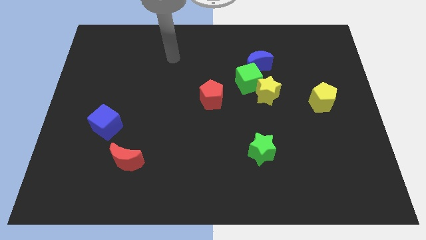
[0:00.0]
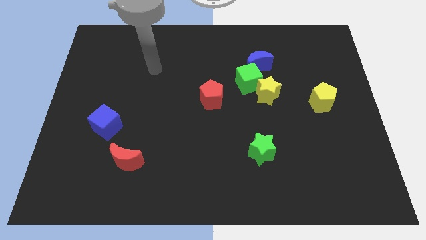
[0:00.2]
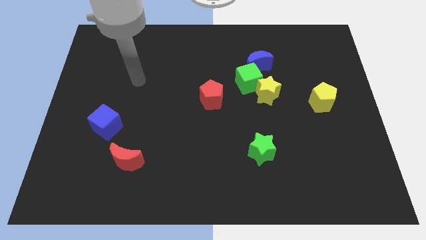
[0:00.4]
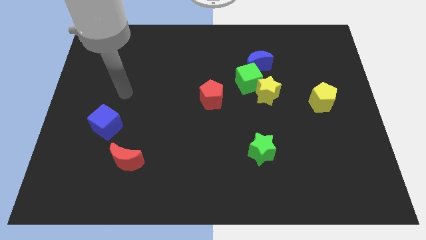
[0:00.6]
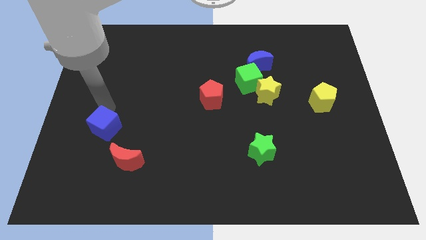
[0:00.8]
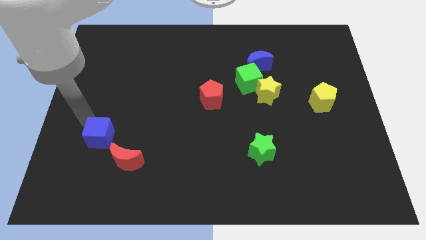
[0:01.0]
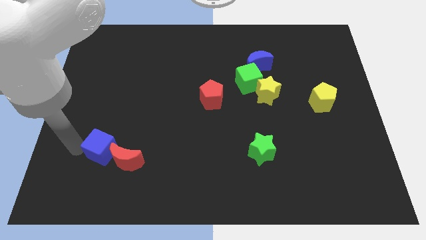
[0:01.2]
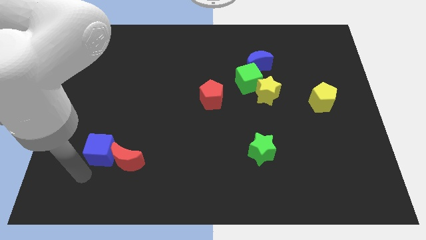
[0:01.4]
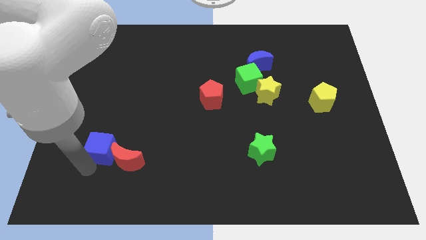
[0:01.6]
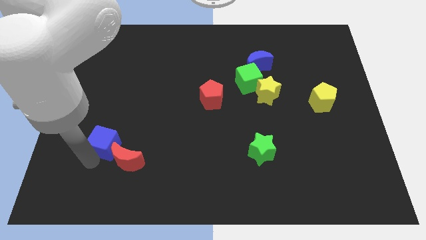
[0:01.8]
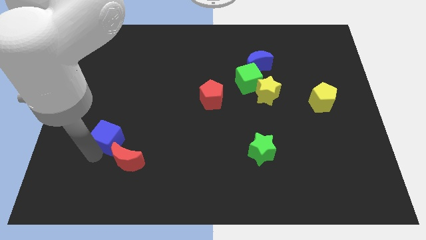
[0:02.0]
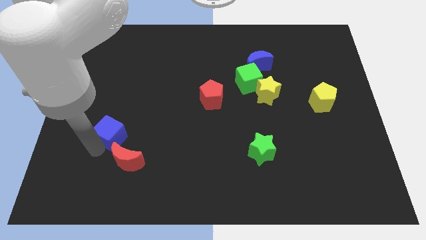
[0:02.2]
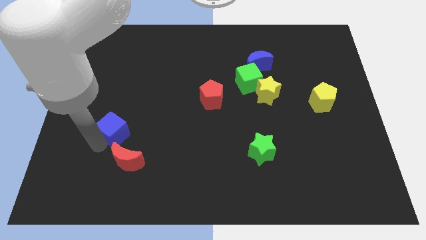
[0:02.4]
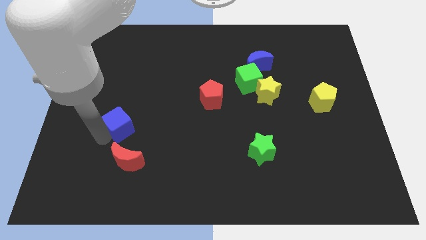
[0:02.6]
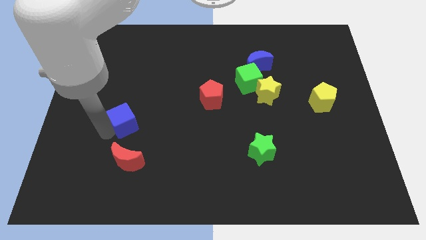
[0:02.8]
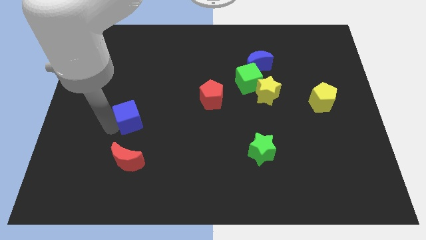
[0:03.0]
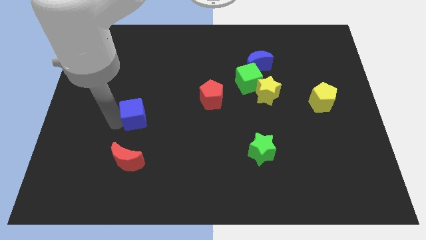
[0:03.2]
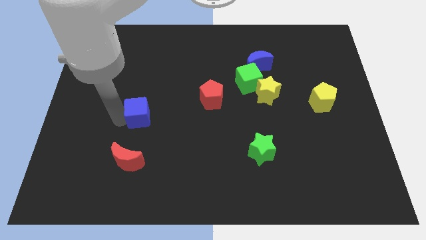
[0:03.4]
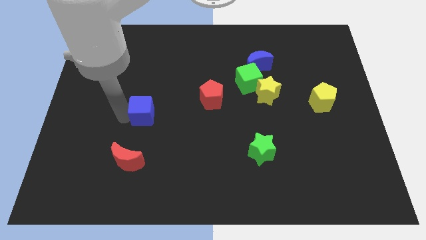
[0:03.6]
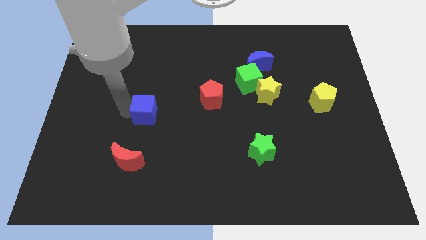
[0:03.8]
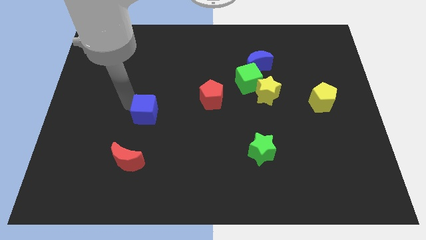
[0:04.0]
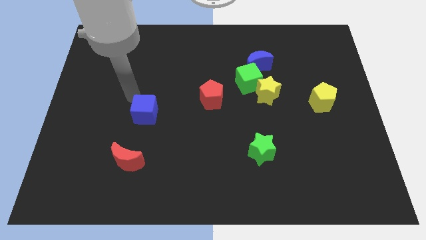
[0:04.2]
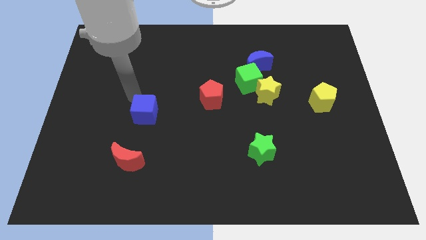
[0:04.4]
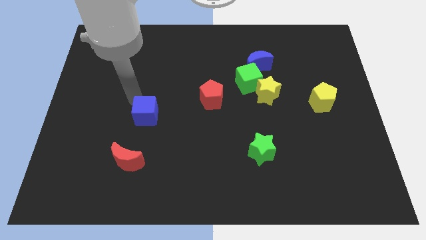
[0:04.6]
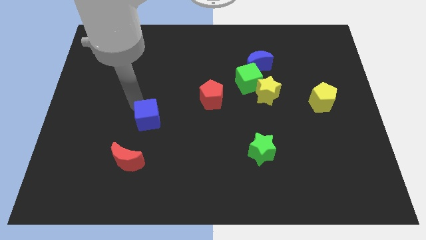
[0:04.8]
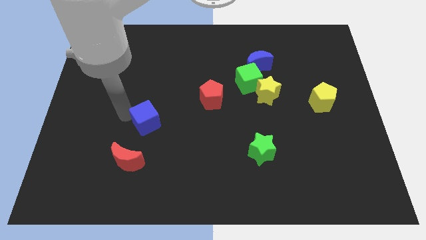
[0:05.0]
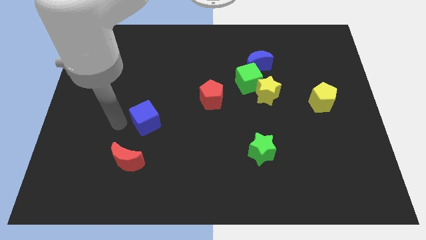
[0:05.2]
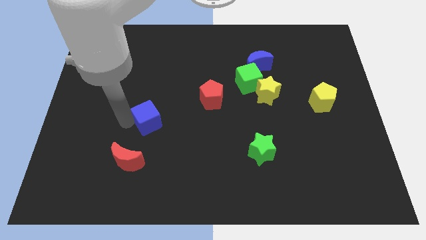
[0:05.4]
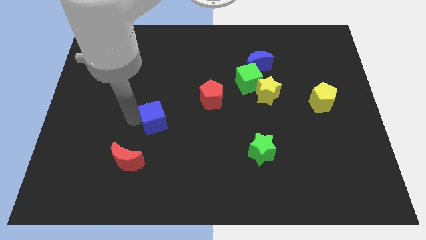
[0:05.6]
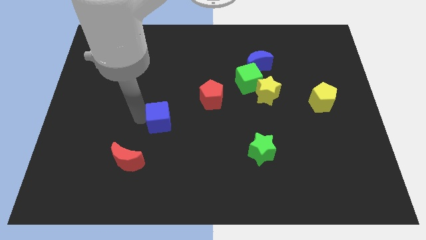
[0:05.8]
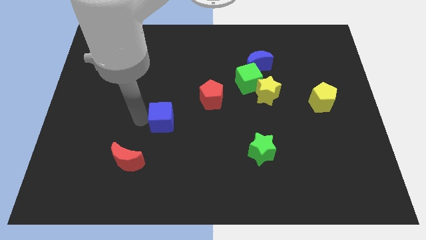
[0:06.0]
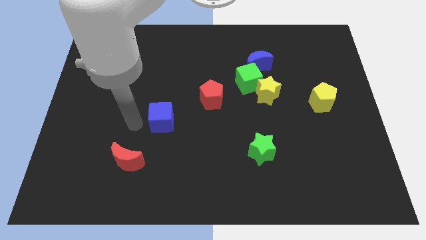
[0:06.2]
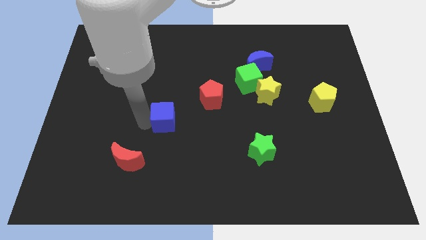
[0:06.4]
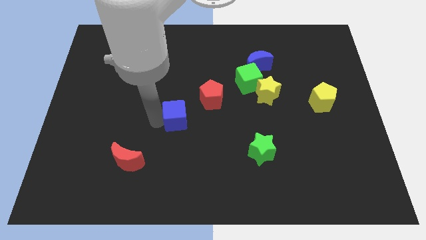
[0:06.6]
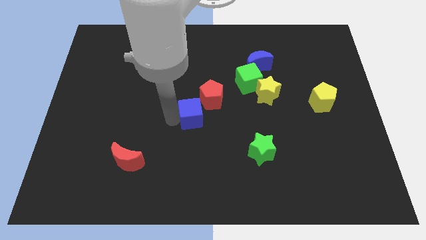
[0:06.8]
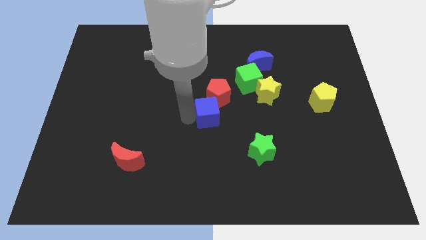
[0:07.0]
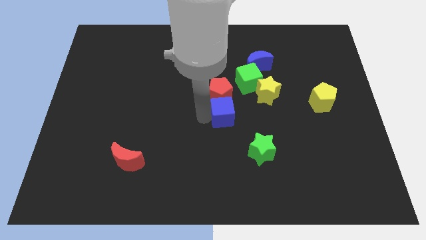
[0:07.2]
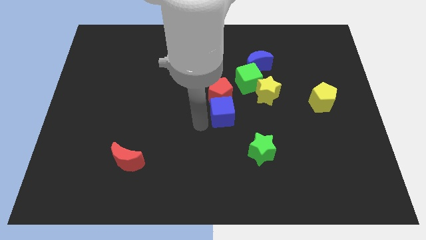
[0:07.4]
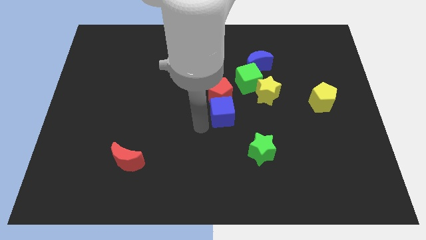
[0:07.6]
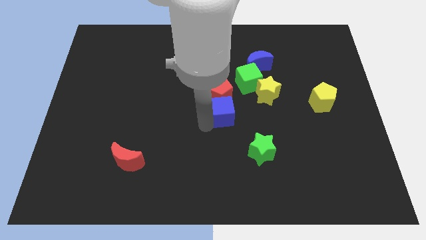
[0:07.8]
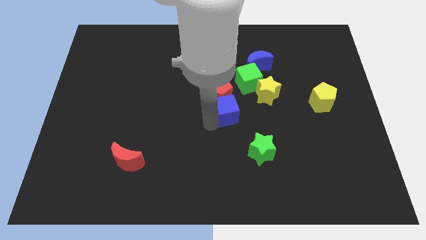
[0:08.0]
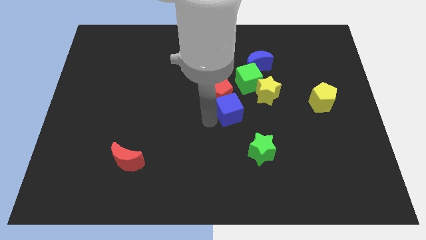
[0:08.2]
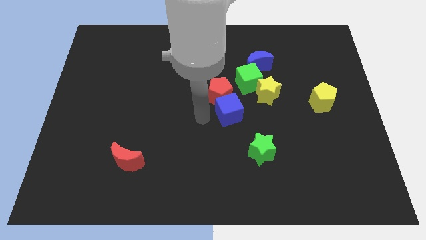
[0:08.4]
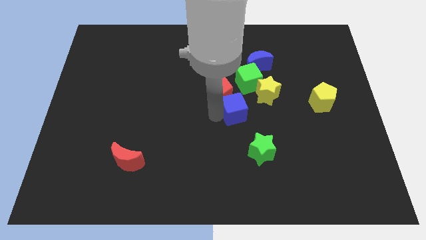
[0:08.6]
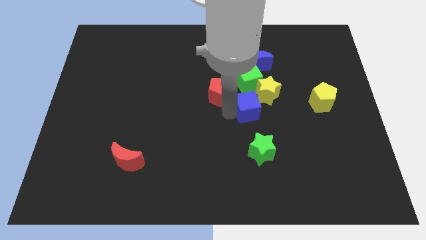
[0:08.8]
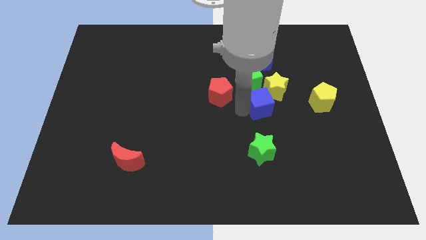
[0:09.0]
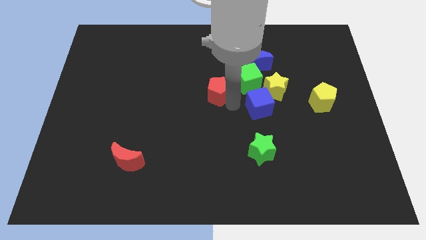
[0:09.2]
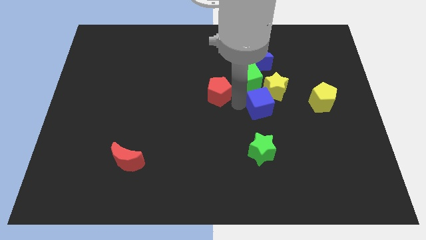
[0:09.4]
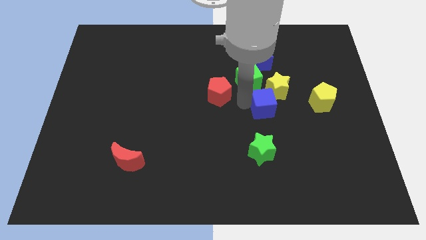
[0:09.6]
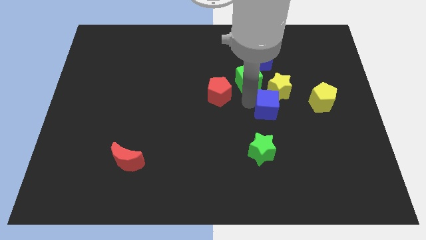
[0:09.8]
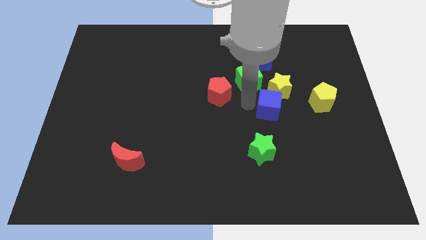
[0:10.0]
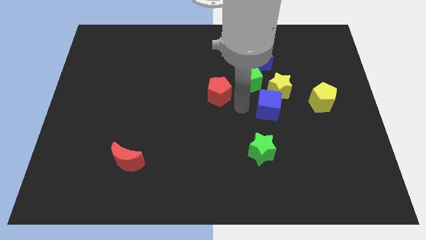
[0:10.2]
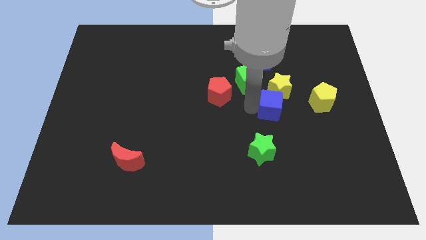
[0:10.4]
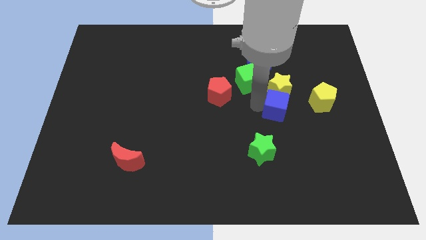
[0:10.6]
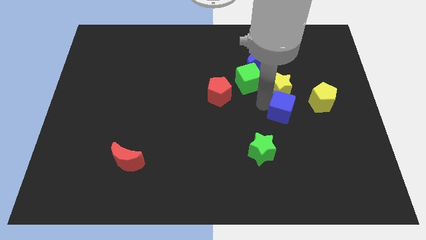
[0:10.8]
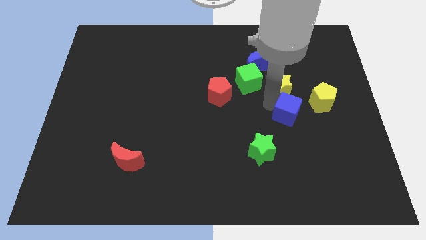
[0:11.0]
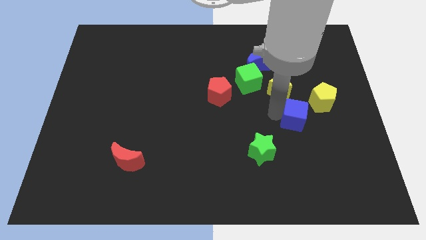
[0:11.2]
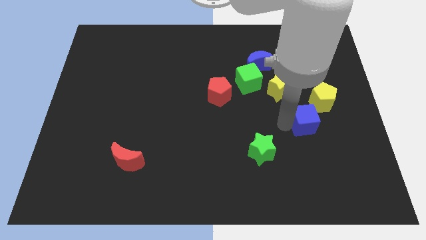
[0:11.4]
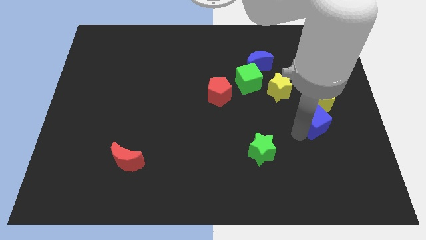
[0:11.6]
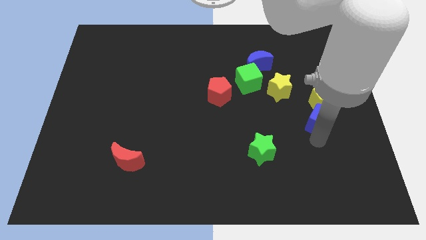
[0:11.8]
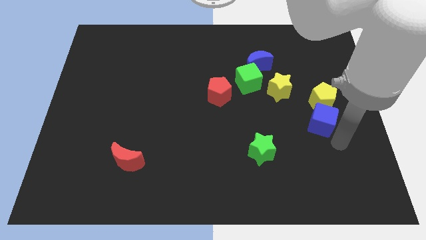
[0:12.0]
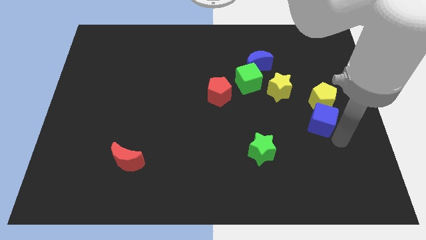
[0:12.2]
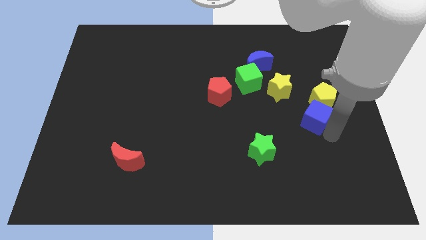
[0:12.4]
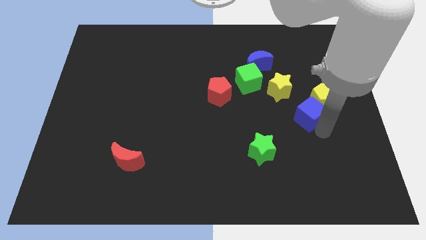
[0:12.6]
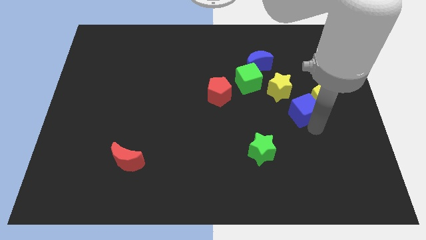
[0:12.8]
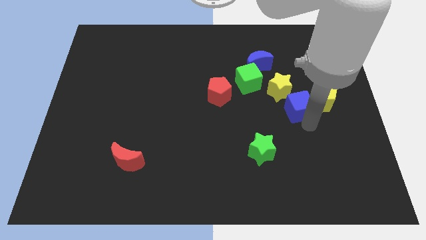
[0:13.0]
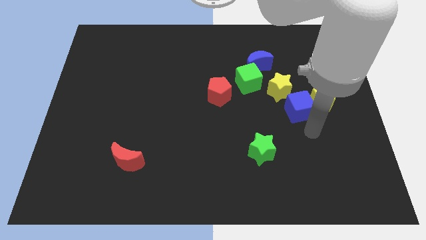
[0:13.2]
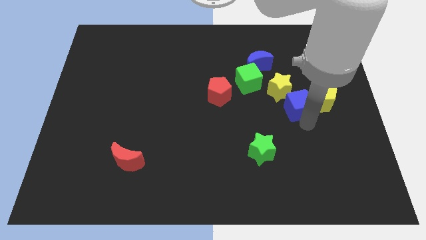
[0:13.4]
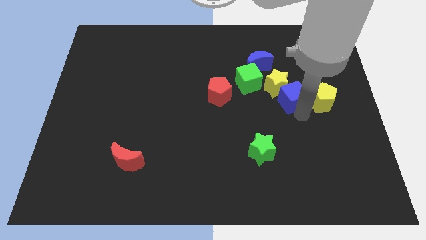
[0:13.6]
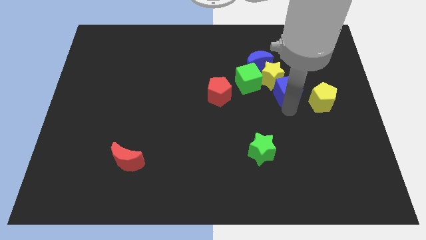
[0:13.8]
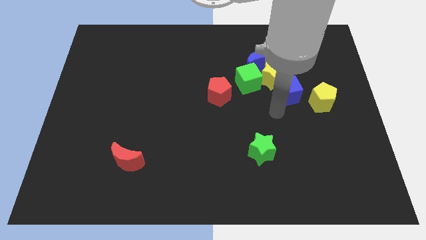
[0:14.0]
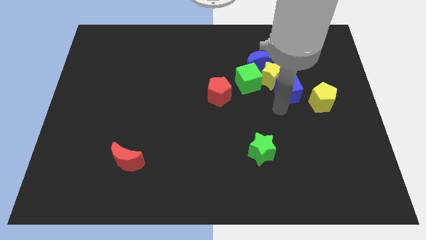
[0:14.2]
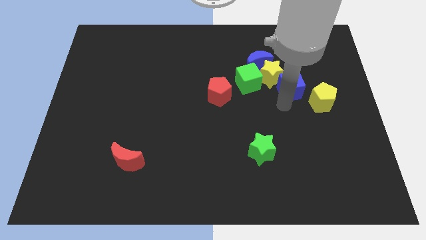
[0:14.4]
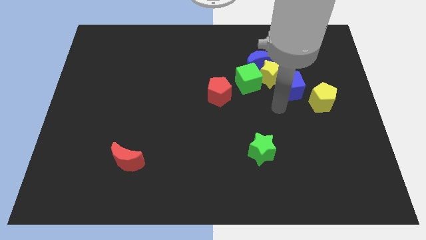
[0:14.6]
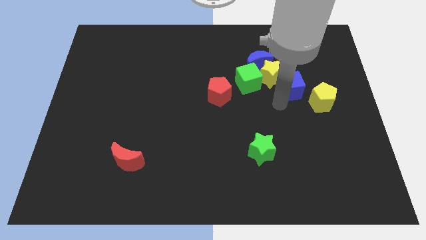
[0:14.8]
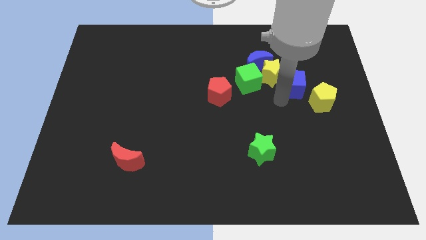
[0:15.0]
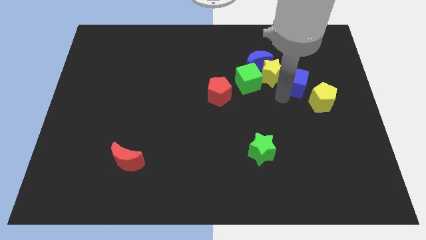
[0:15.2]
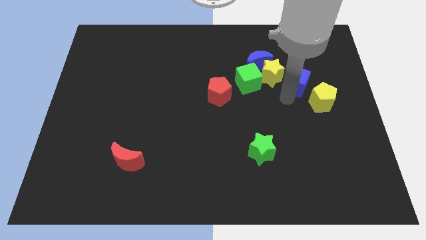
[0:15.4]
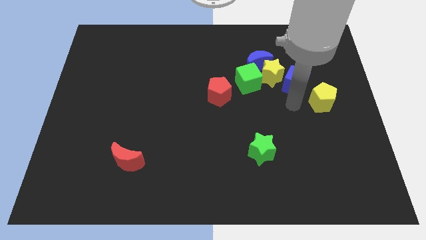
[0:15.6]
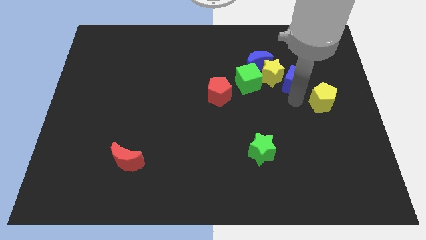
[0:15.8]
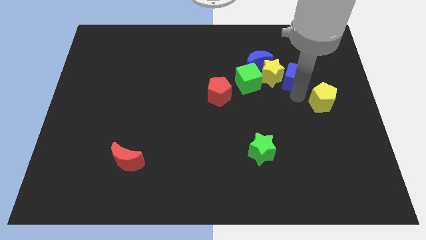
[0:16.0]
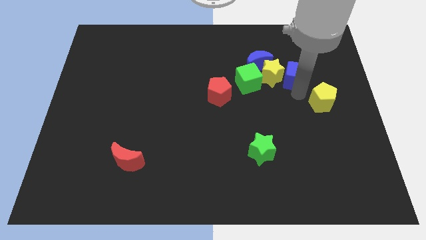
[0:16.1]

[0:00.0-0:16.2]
push the blue cube just right of the blue moon
